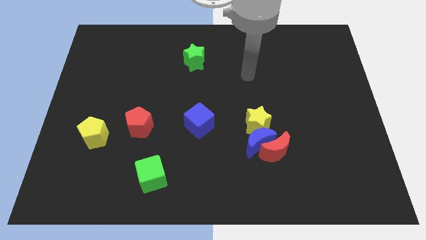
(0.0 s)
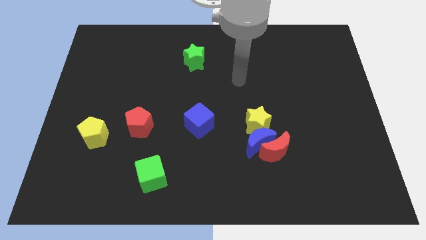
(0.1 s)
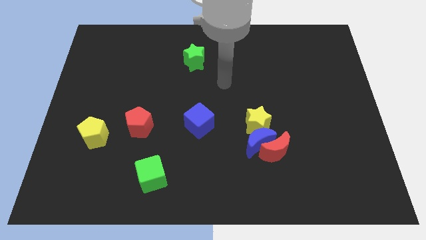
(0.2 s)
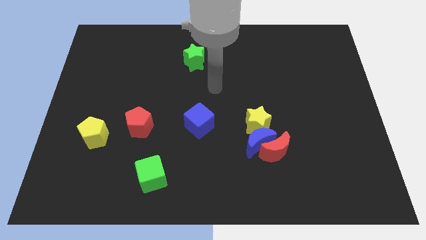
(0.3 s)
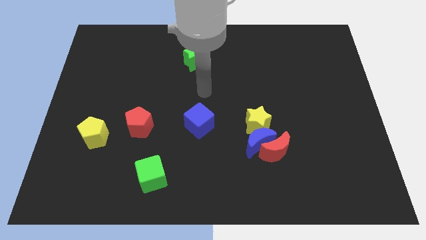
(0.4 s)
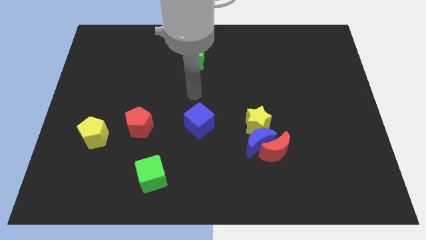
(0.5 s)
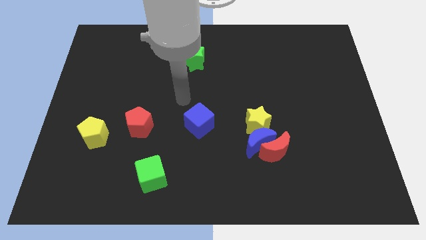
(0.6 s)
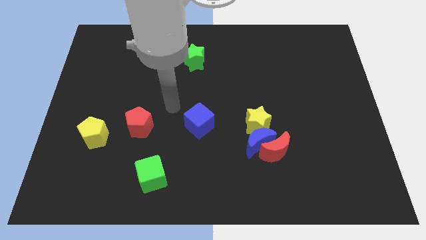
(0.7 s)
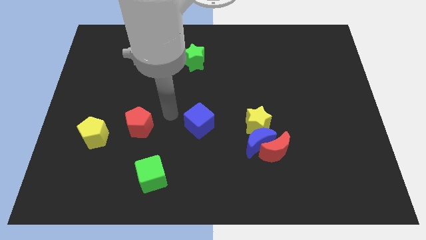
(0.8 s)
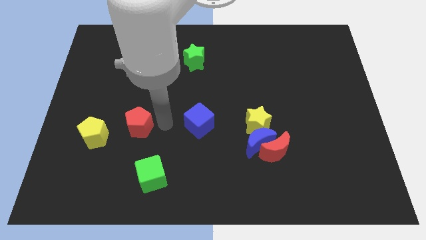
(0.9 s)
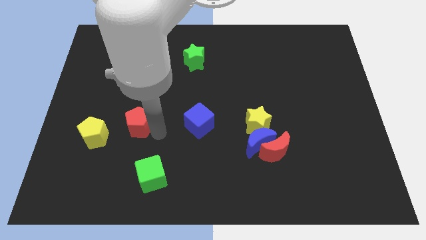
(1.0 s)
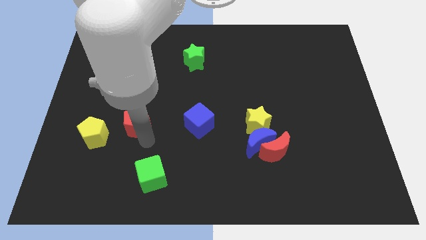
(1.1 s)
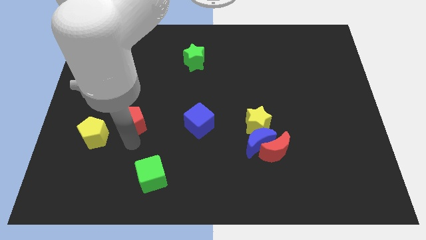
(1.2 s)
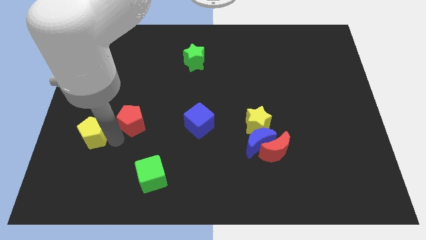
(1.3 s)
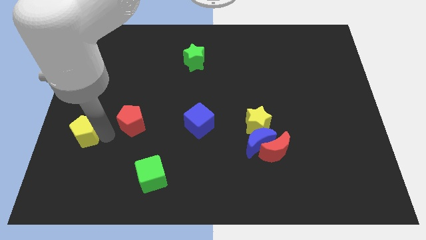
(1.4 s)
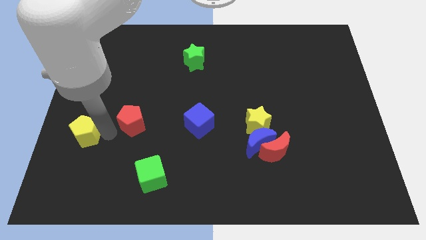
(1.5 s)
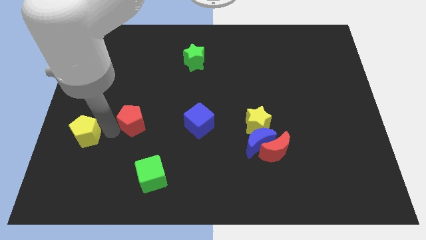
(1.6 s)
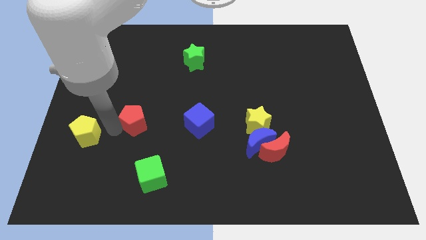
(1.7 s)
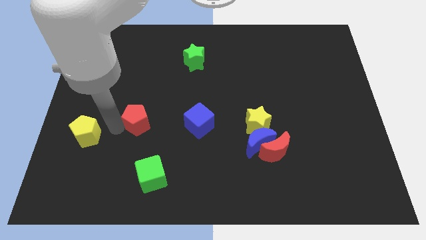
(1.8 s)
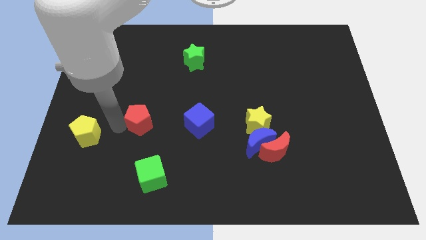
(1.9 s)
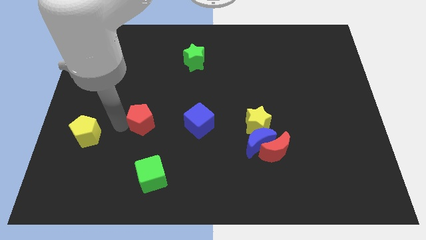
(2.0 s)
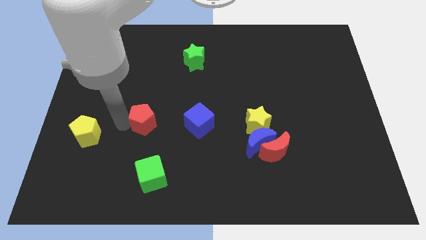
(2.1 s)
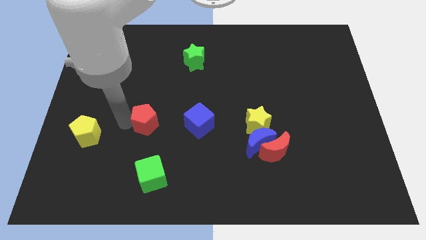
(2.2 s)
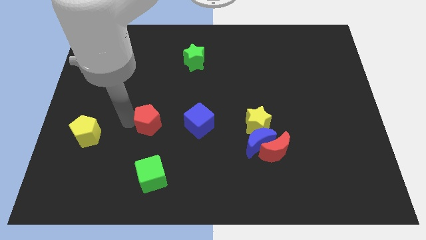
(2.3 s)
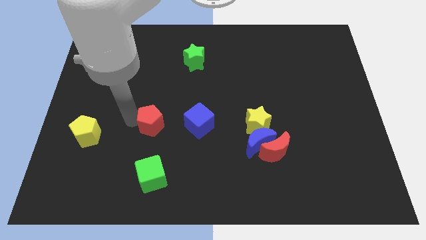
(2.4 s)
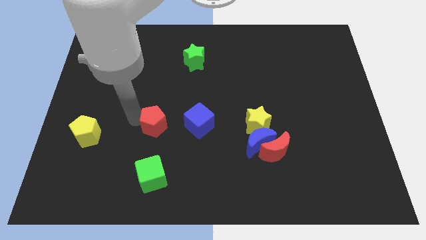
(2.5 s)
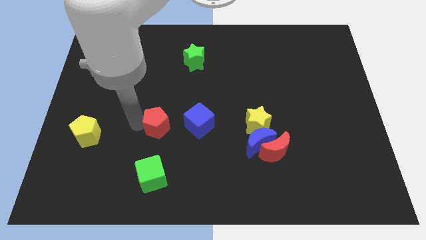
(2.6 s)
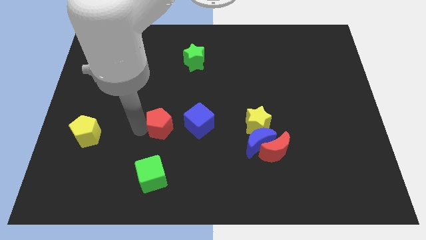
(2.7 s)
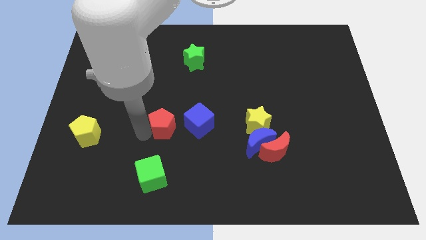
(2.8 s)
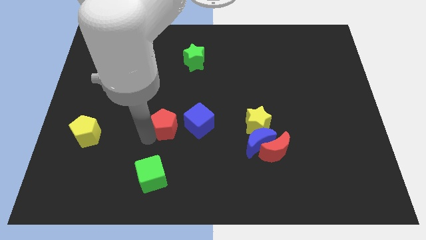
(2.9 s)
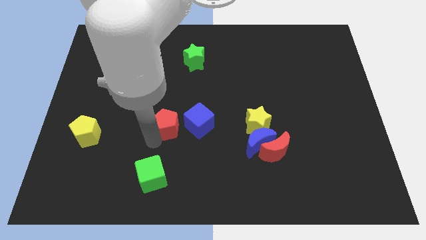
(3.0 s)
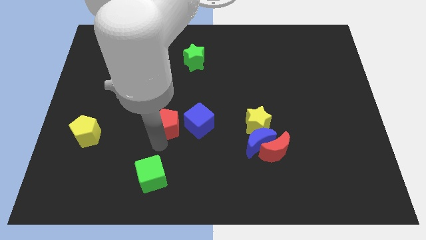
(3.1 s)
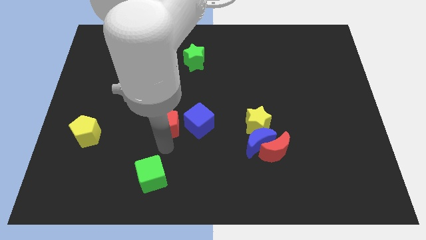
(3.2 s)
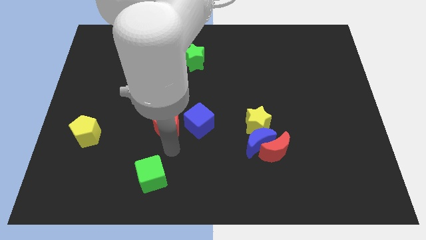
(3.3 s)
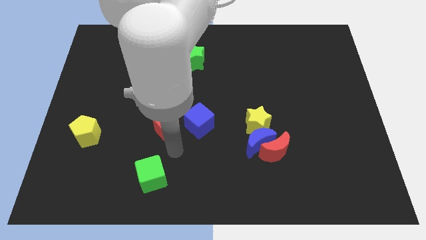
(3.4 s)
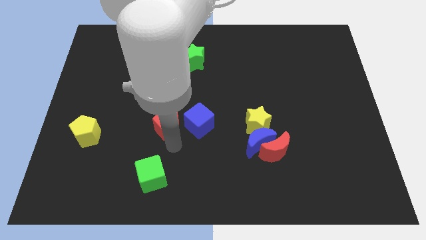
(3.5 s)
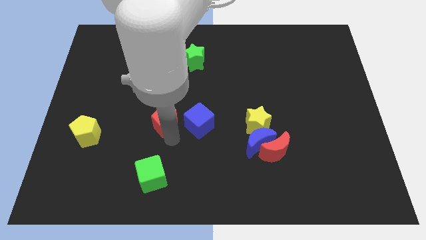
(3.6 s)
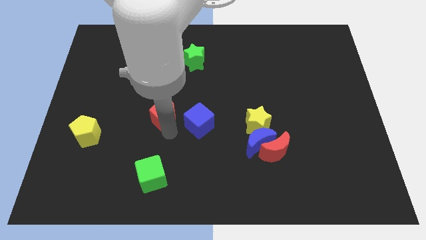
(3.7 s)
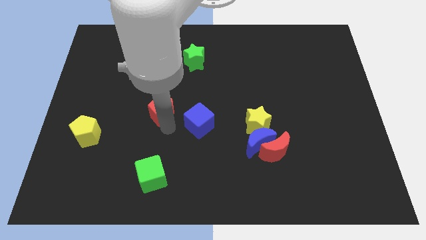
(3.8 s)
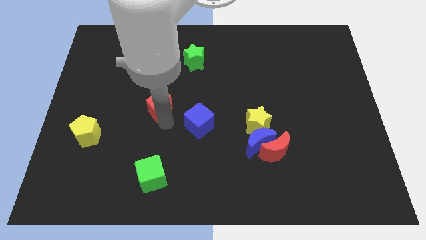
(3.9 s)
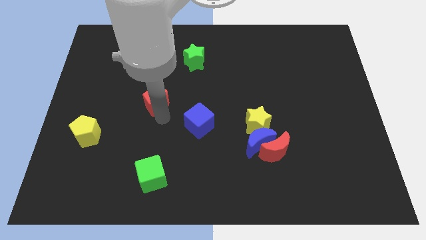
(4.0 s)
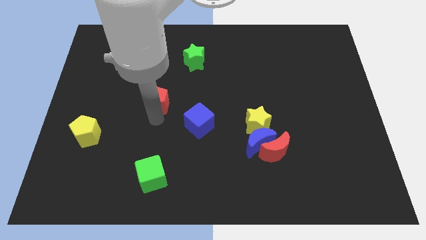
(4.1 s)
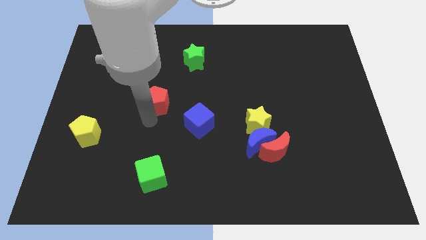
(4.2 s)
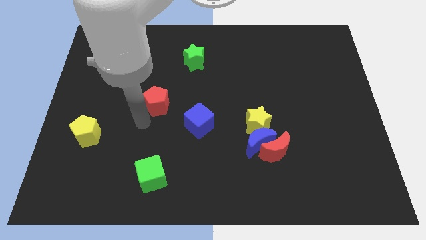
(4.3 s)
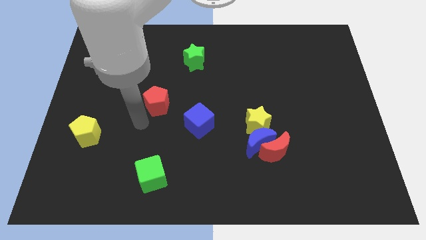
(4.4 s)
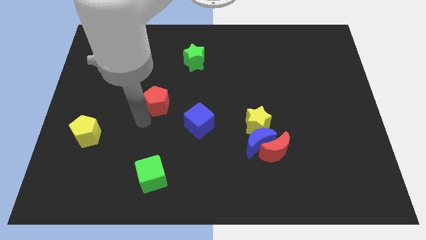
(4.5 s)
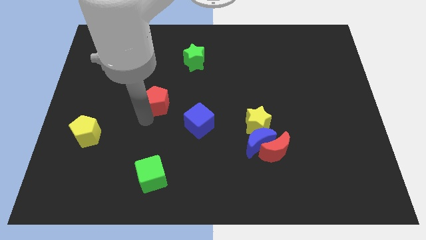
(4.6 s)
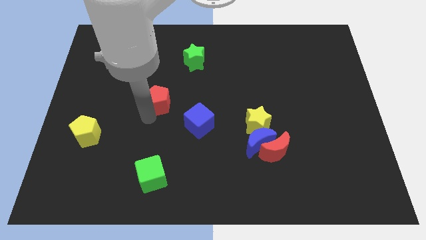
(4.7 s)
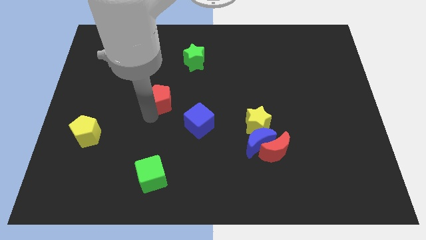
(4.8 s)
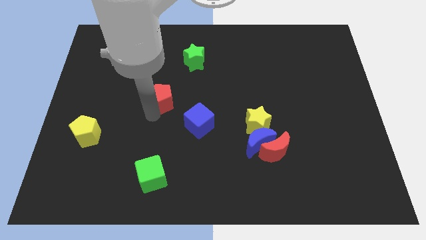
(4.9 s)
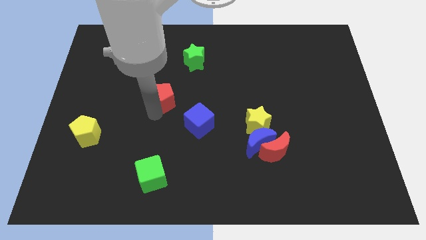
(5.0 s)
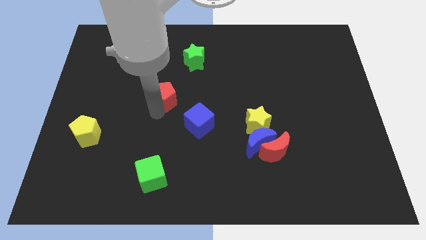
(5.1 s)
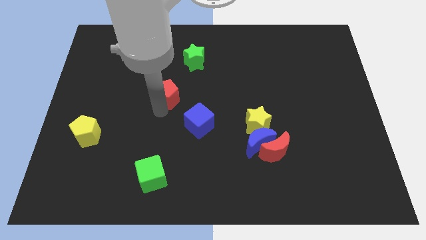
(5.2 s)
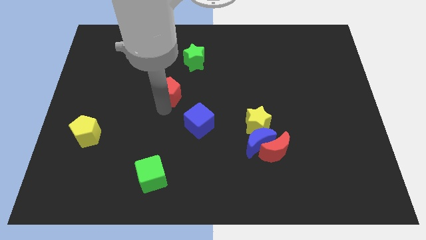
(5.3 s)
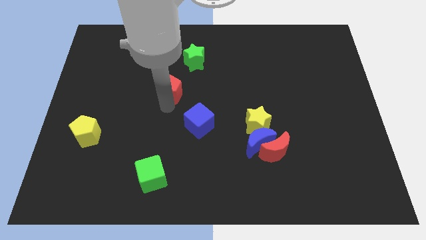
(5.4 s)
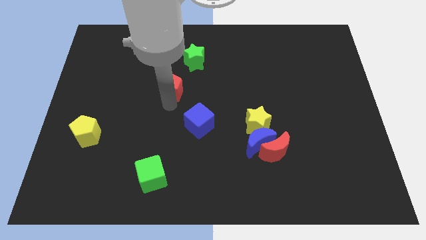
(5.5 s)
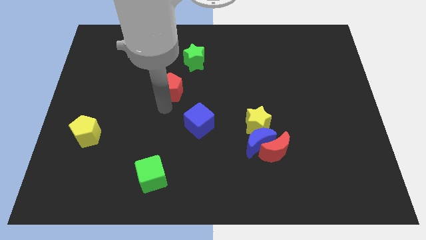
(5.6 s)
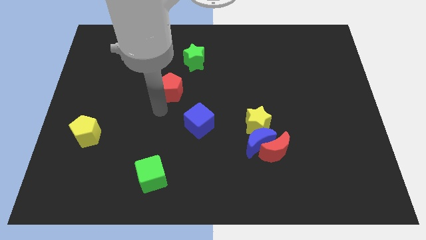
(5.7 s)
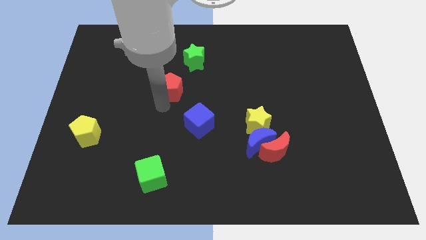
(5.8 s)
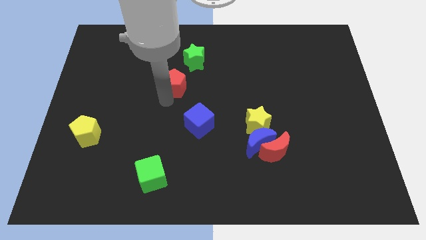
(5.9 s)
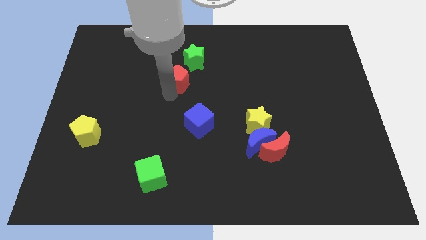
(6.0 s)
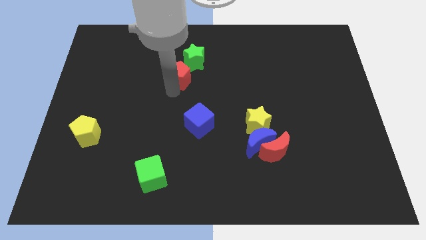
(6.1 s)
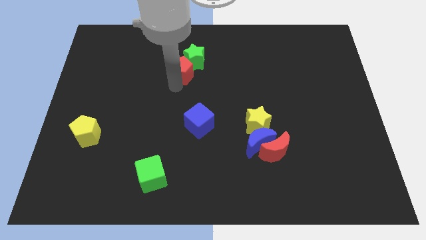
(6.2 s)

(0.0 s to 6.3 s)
slide the red pentagon towards the green star
